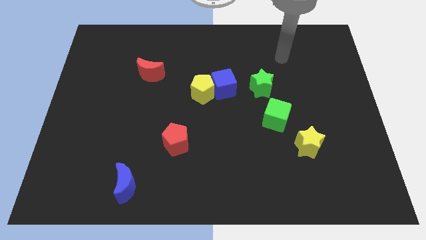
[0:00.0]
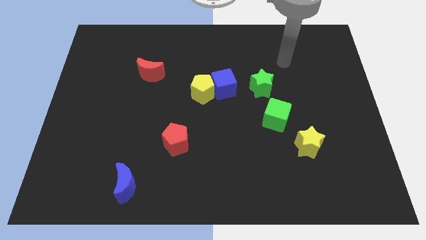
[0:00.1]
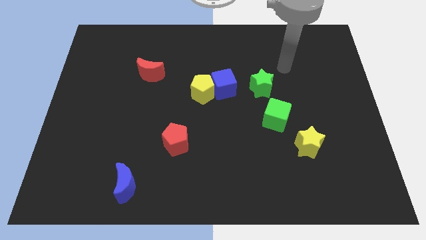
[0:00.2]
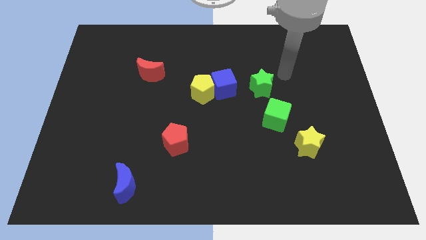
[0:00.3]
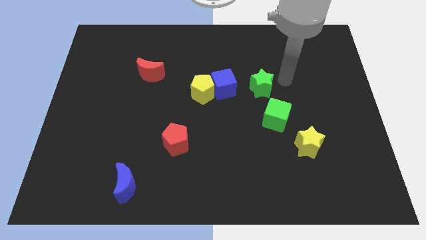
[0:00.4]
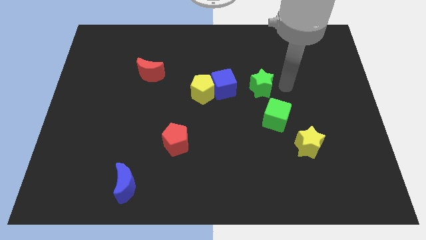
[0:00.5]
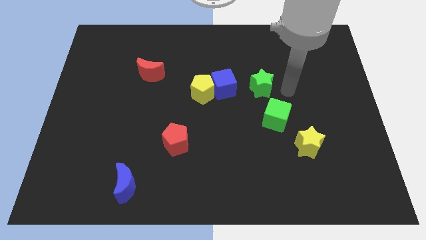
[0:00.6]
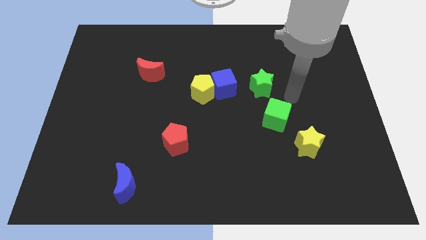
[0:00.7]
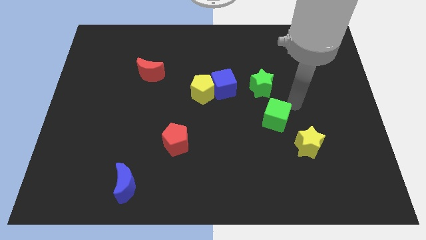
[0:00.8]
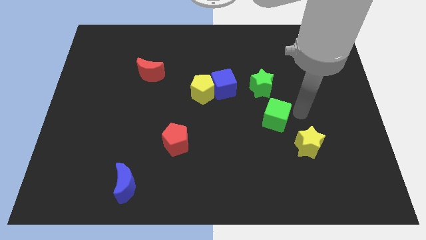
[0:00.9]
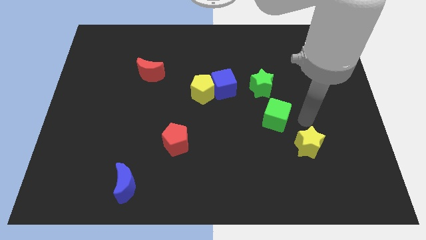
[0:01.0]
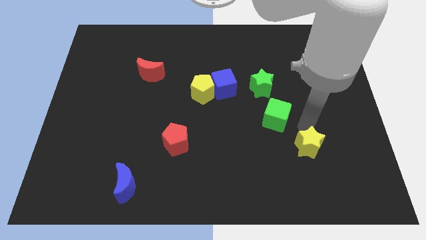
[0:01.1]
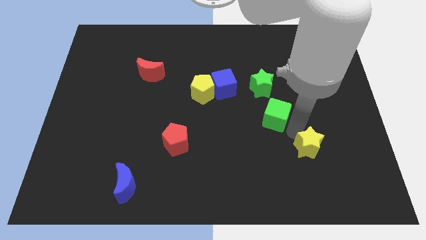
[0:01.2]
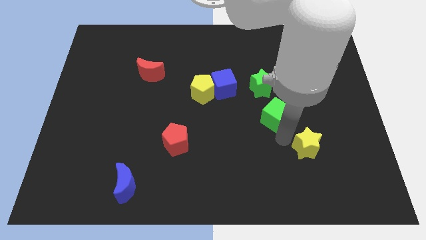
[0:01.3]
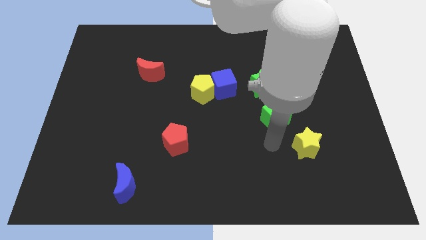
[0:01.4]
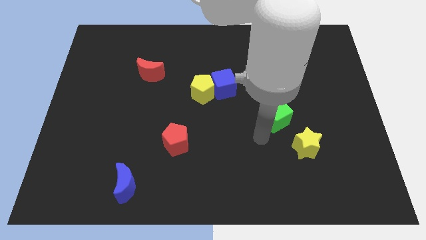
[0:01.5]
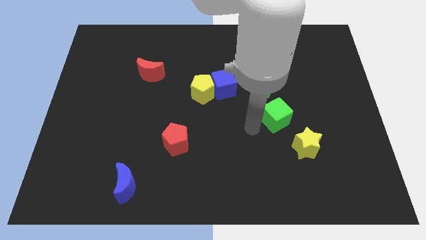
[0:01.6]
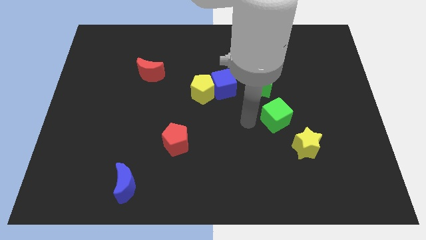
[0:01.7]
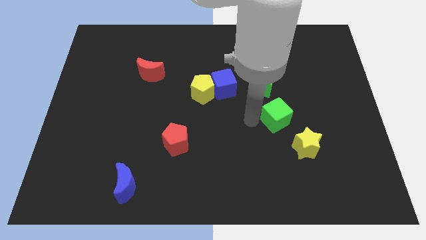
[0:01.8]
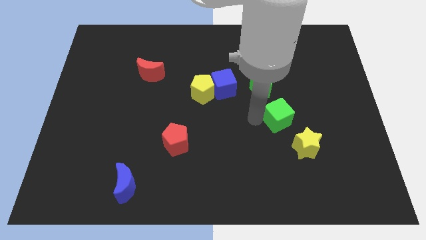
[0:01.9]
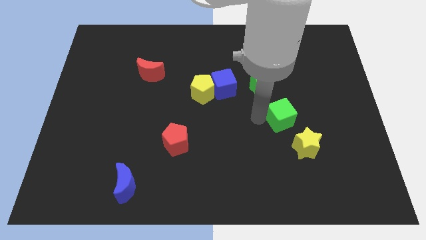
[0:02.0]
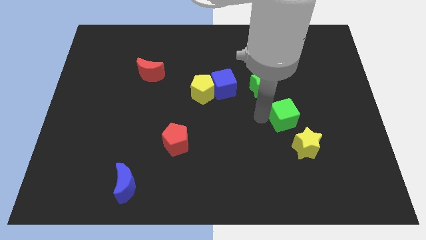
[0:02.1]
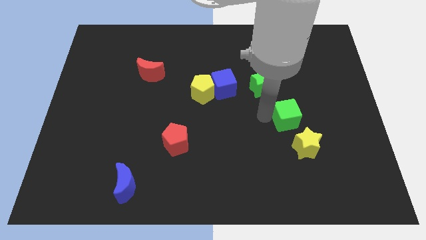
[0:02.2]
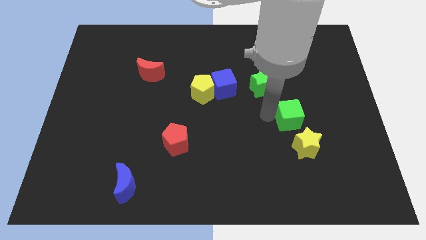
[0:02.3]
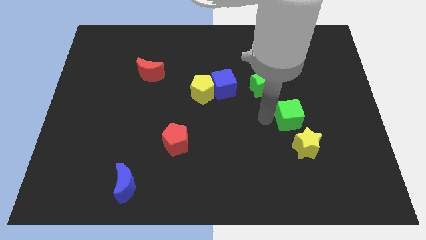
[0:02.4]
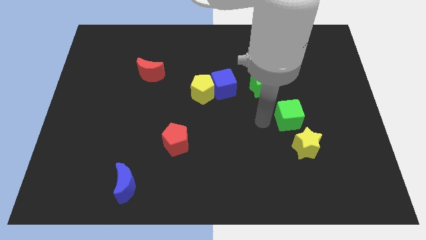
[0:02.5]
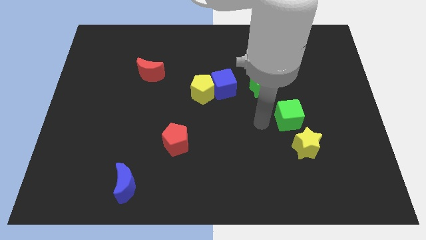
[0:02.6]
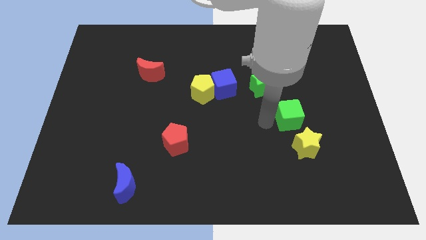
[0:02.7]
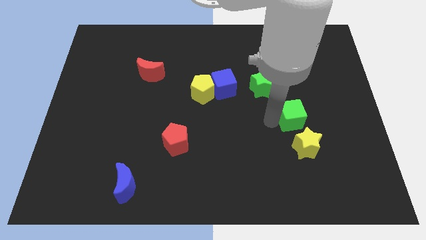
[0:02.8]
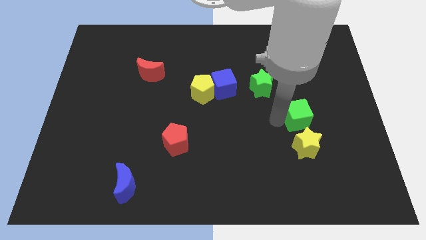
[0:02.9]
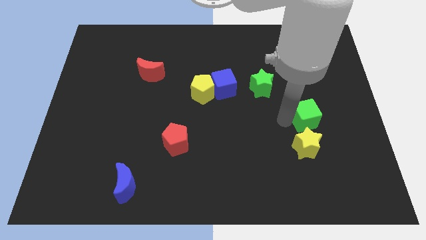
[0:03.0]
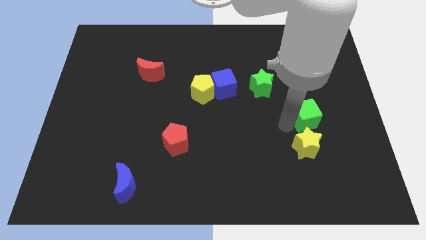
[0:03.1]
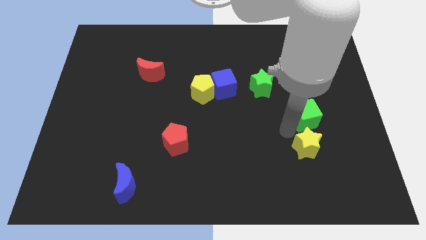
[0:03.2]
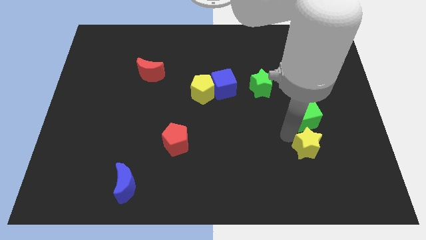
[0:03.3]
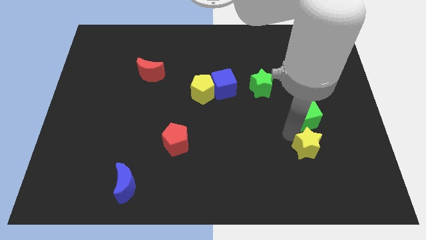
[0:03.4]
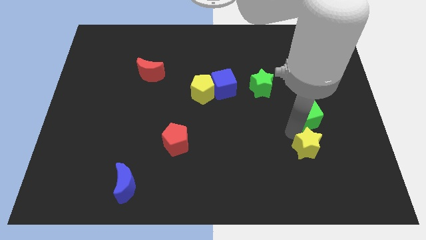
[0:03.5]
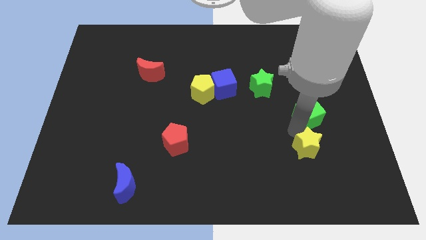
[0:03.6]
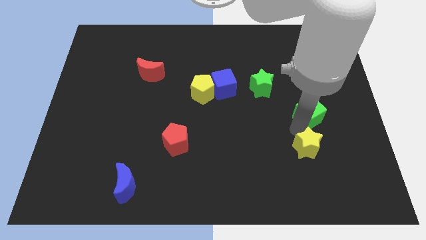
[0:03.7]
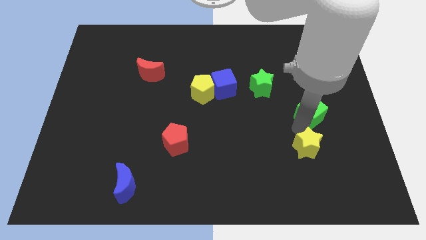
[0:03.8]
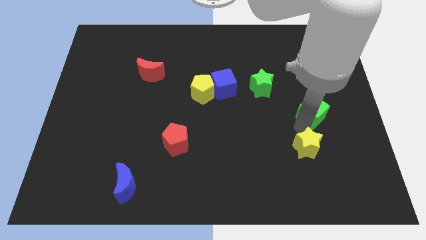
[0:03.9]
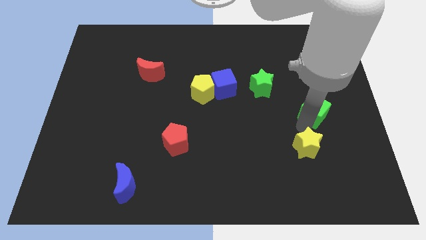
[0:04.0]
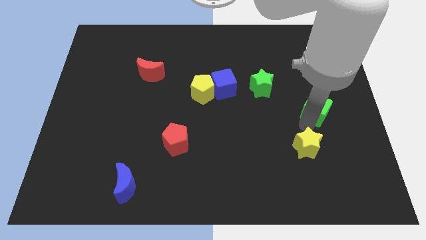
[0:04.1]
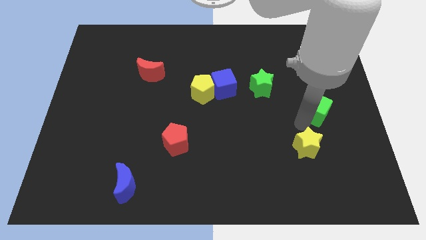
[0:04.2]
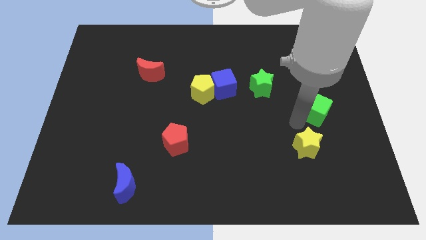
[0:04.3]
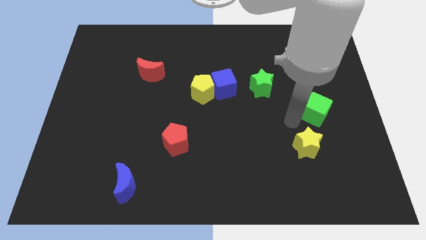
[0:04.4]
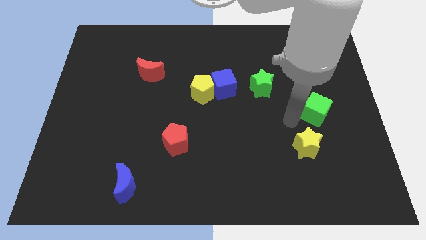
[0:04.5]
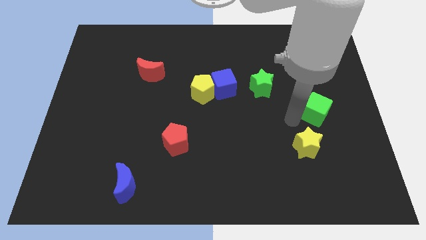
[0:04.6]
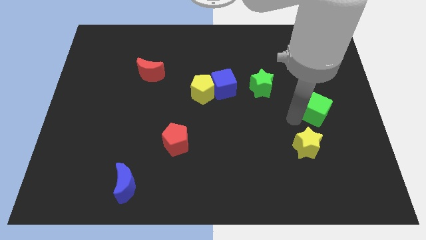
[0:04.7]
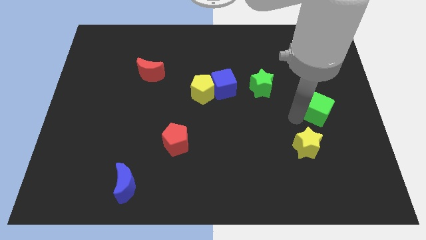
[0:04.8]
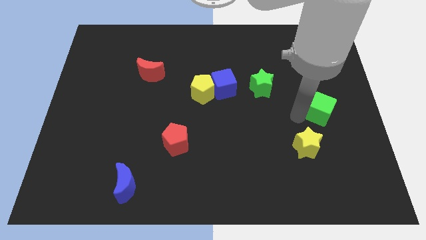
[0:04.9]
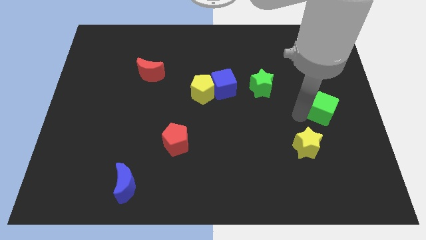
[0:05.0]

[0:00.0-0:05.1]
push the green cube to the right side of the board

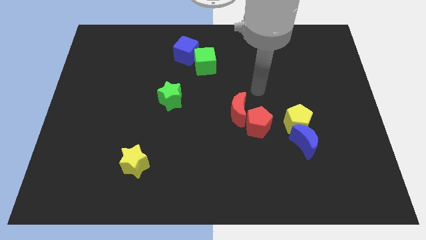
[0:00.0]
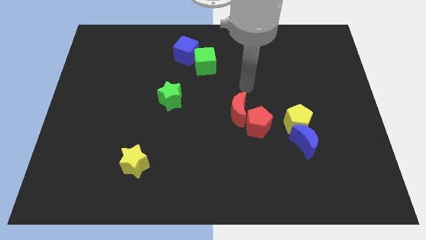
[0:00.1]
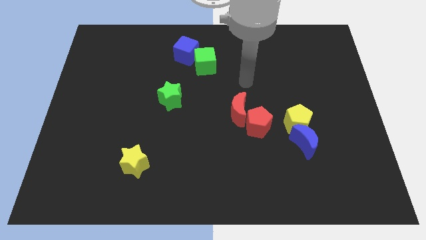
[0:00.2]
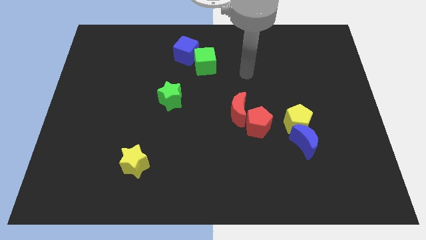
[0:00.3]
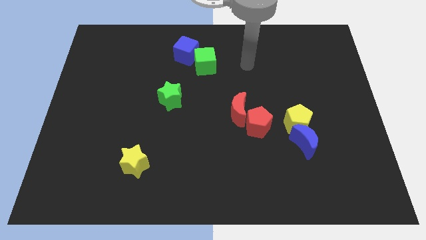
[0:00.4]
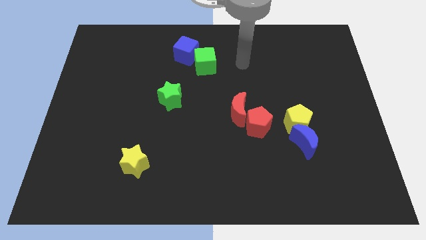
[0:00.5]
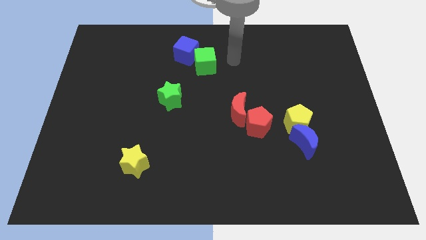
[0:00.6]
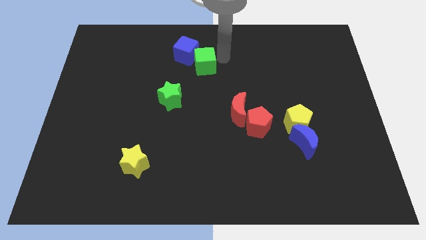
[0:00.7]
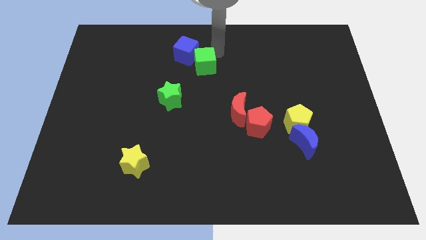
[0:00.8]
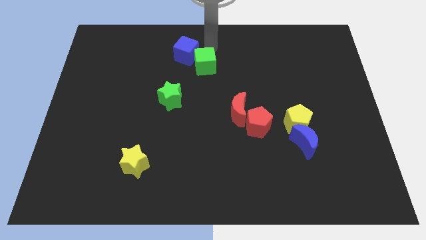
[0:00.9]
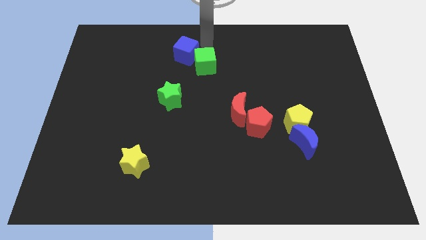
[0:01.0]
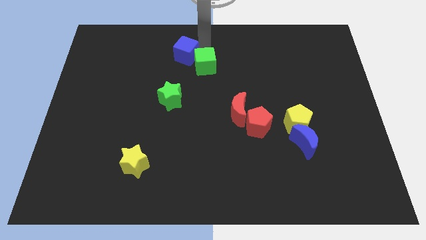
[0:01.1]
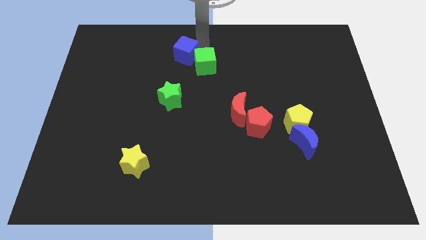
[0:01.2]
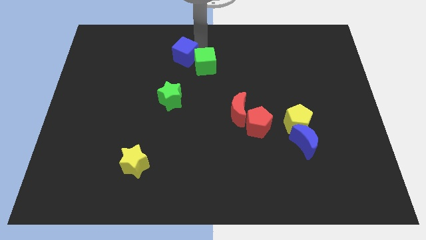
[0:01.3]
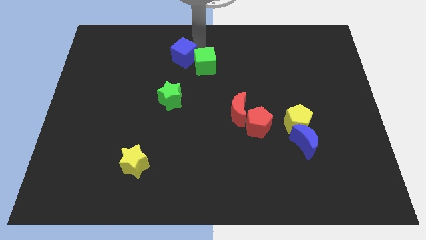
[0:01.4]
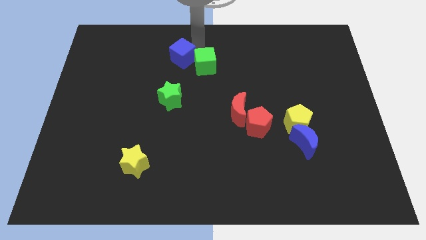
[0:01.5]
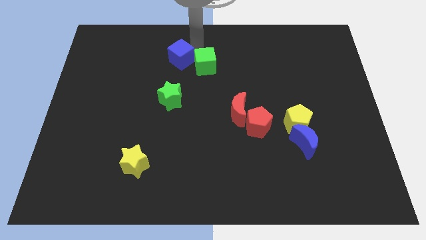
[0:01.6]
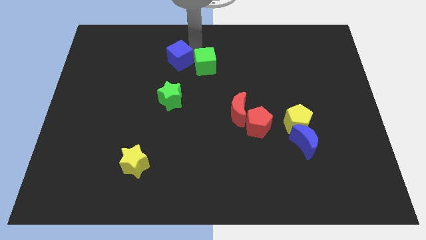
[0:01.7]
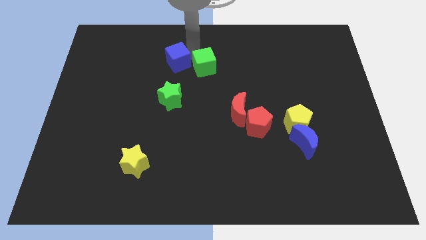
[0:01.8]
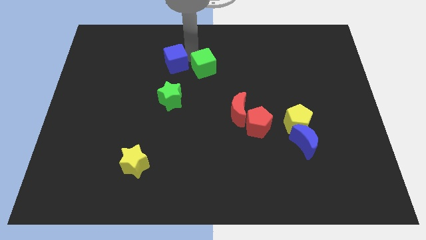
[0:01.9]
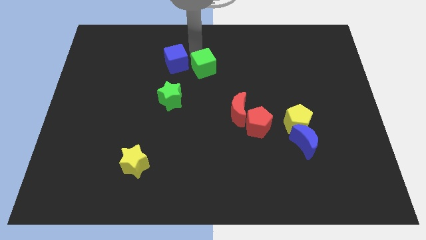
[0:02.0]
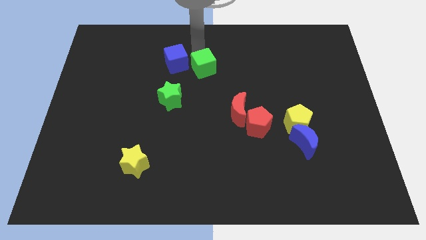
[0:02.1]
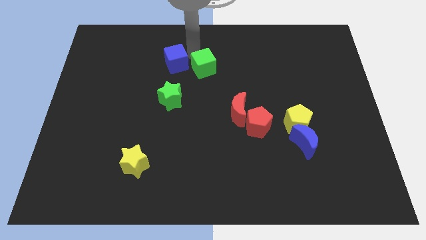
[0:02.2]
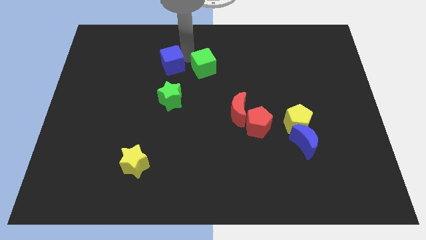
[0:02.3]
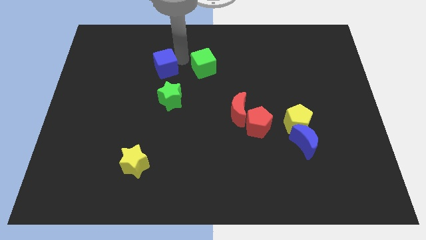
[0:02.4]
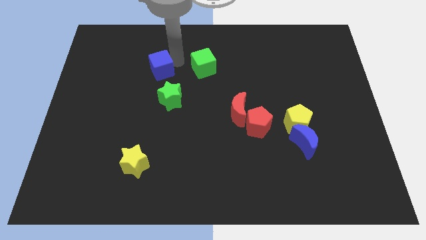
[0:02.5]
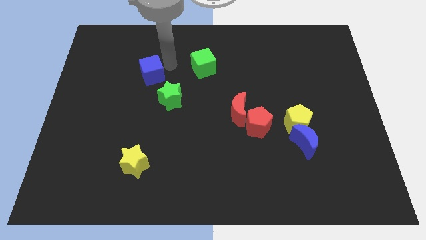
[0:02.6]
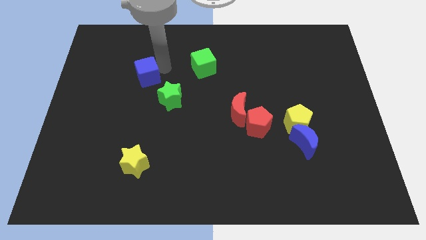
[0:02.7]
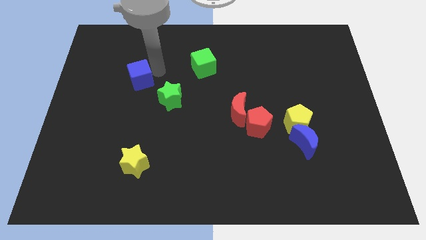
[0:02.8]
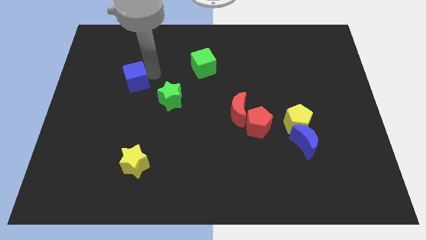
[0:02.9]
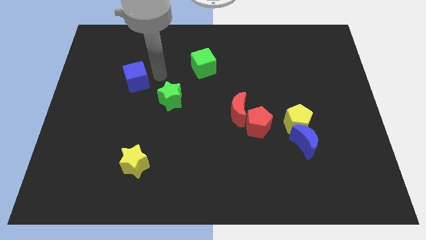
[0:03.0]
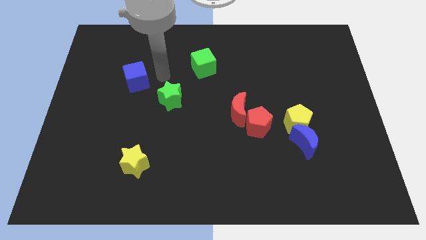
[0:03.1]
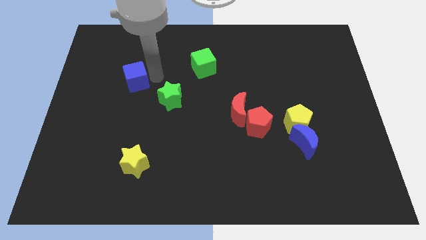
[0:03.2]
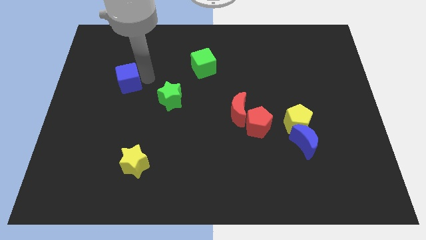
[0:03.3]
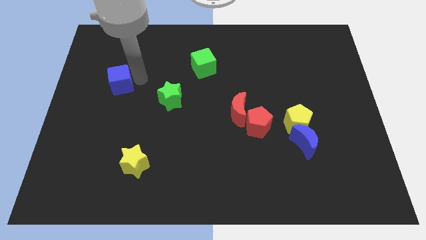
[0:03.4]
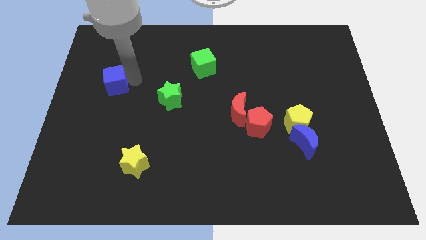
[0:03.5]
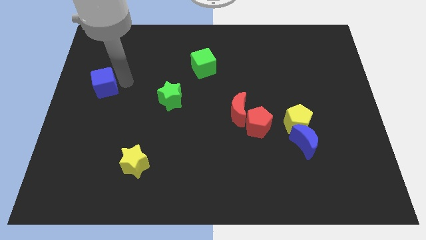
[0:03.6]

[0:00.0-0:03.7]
push the blue cube to the left side
